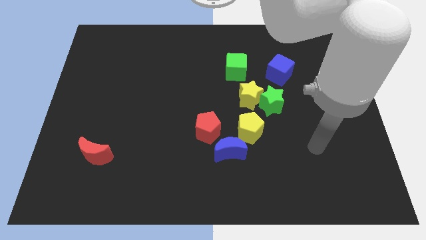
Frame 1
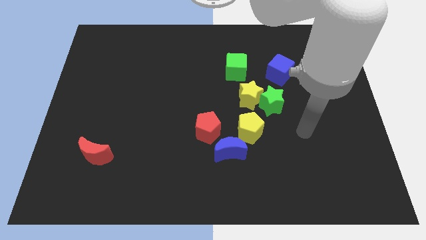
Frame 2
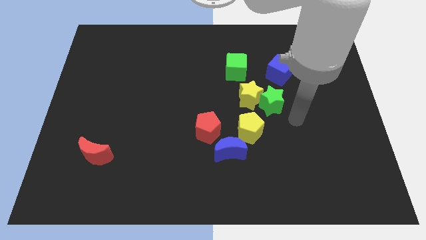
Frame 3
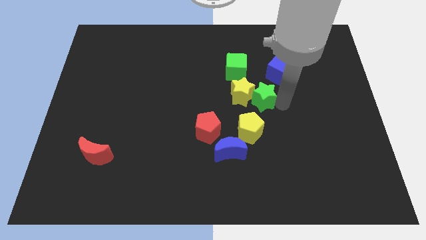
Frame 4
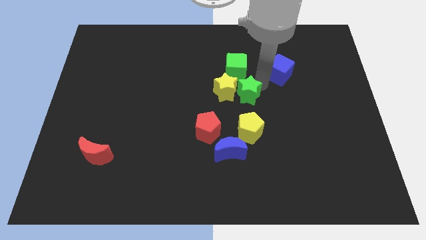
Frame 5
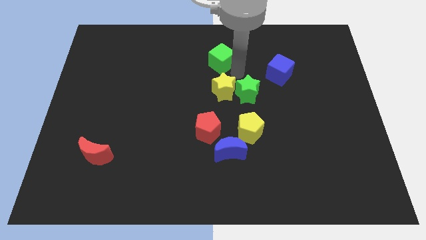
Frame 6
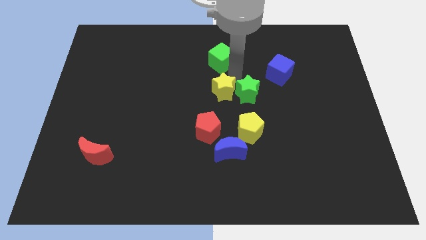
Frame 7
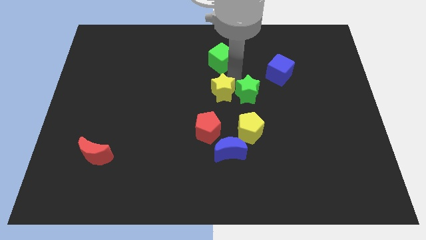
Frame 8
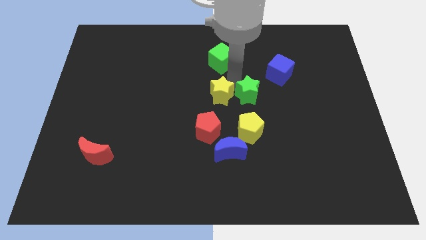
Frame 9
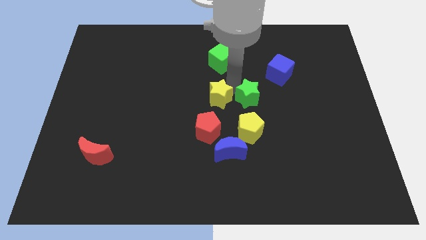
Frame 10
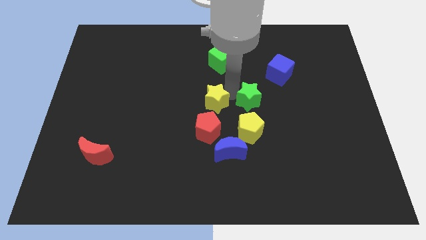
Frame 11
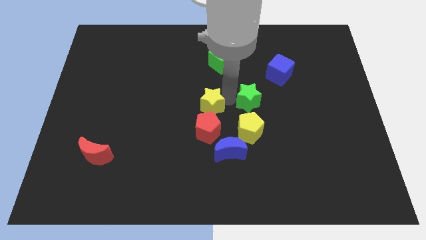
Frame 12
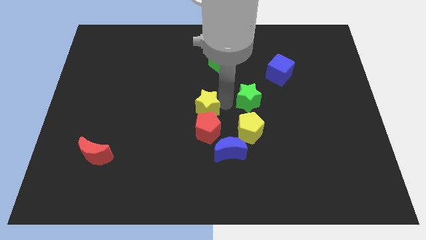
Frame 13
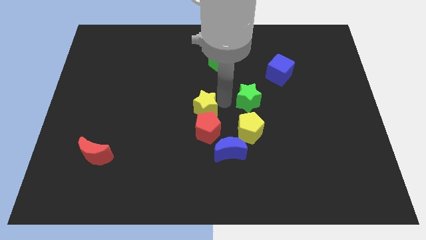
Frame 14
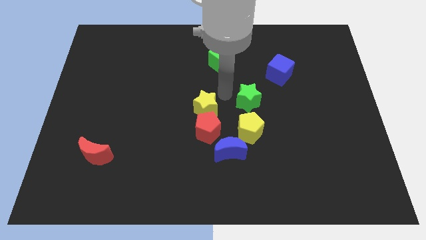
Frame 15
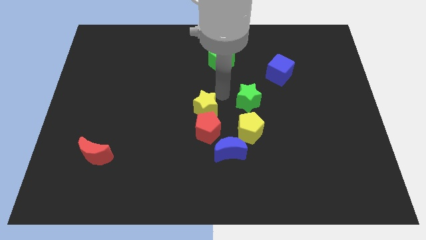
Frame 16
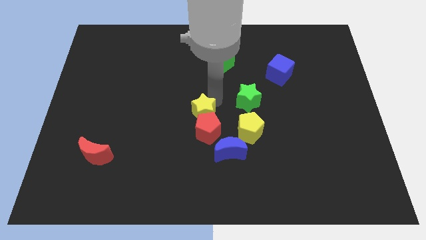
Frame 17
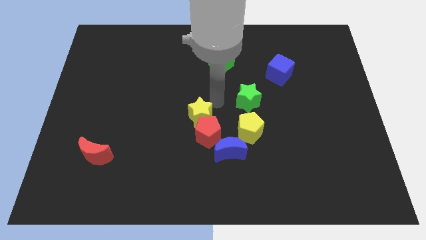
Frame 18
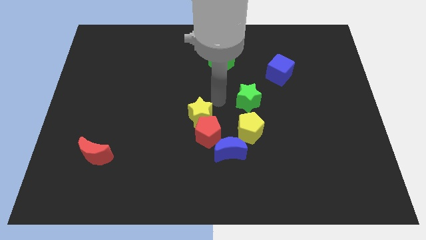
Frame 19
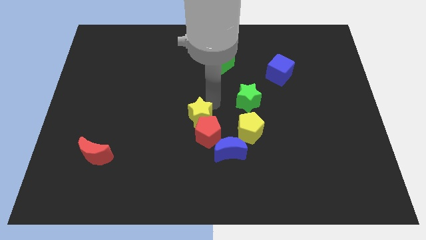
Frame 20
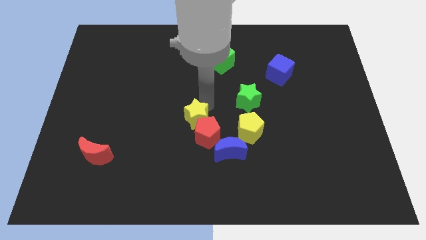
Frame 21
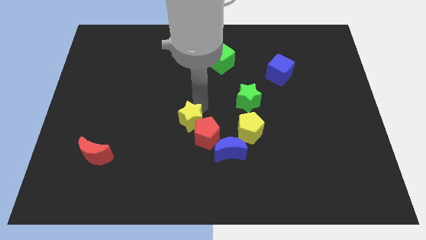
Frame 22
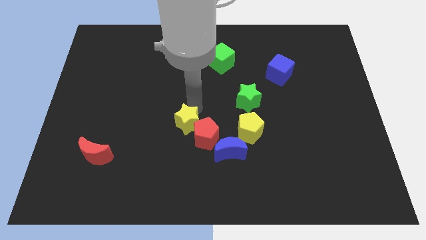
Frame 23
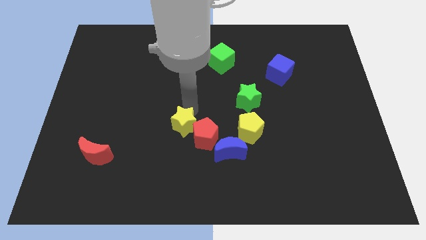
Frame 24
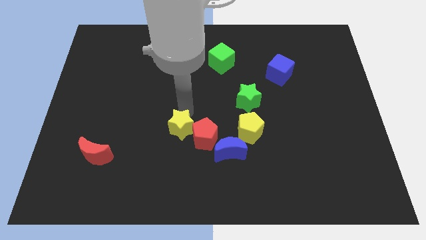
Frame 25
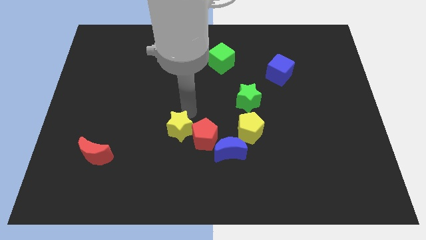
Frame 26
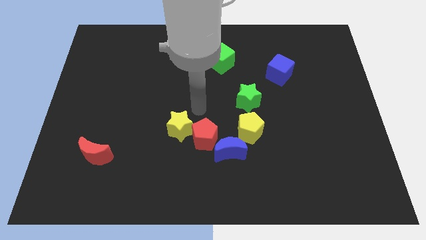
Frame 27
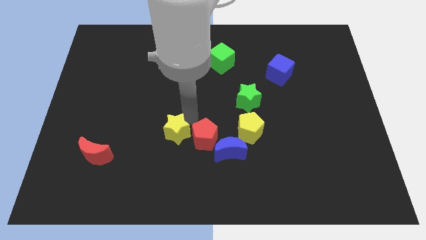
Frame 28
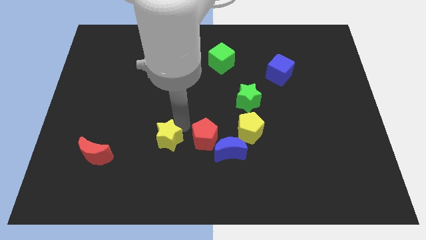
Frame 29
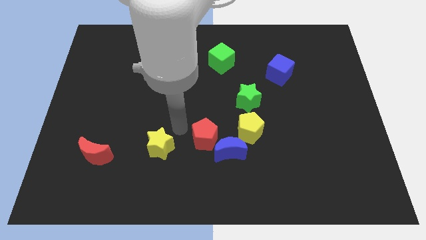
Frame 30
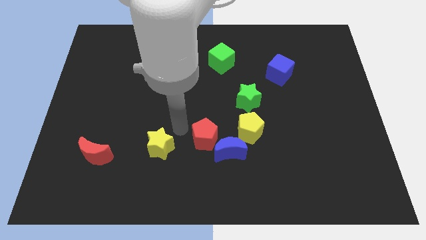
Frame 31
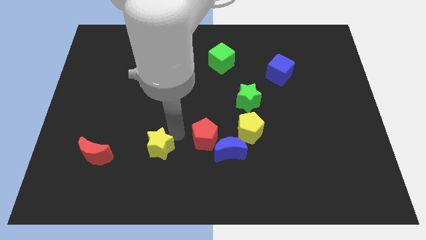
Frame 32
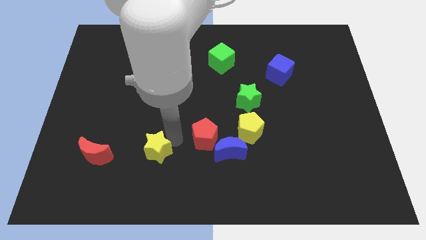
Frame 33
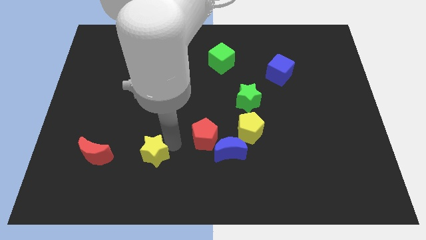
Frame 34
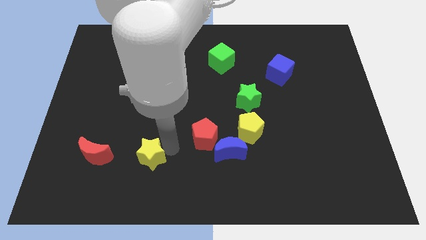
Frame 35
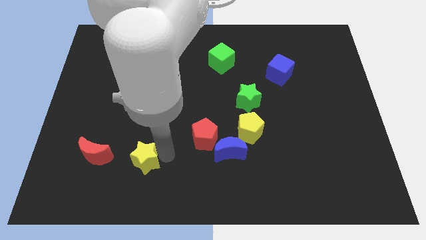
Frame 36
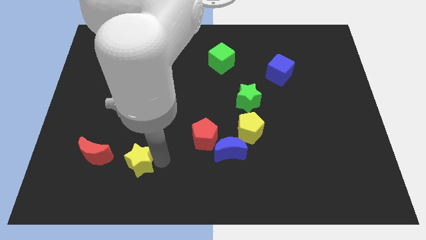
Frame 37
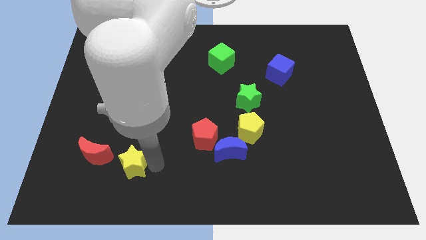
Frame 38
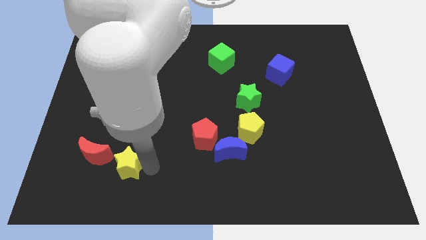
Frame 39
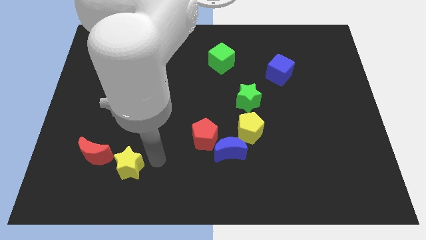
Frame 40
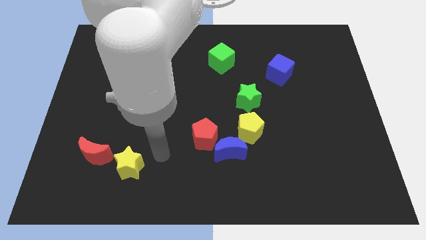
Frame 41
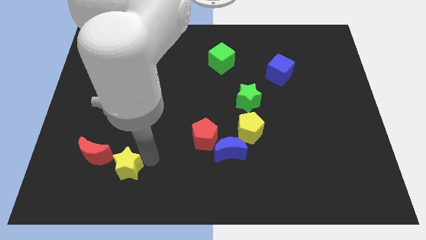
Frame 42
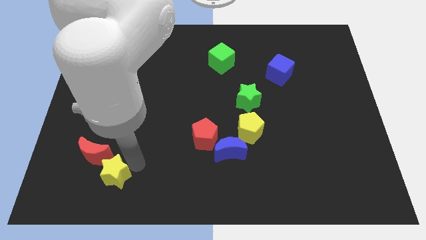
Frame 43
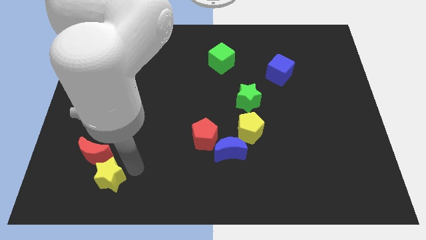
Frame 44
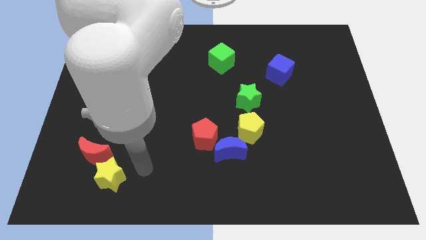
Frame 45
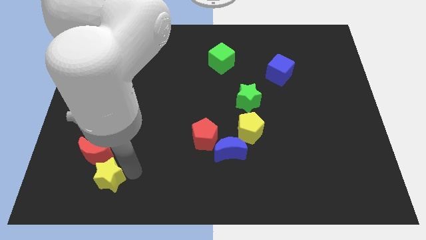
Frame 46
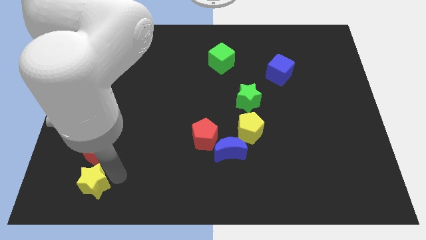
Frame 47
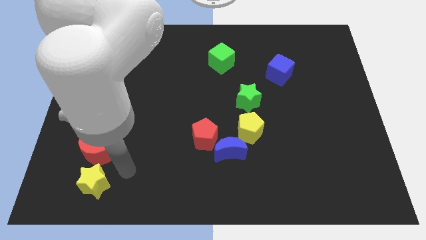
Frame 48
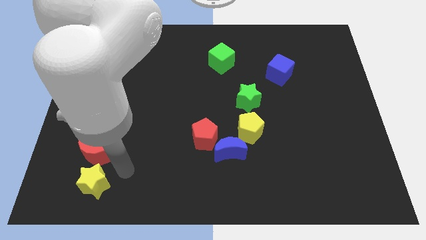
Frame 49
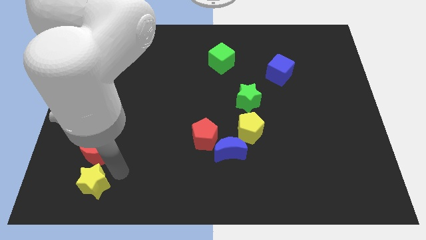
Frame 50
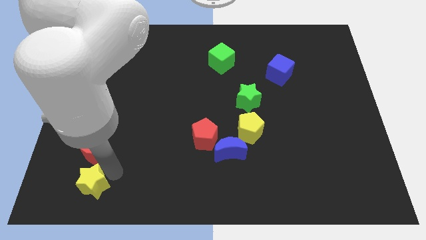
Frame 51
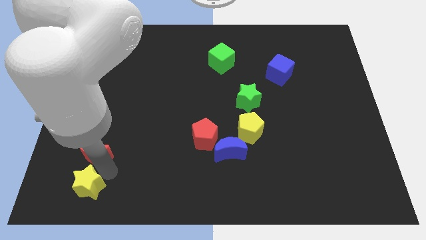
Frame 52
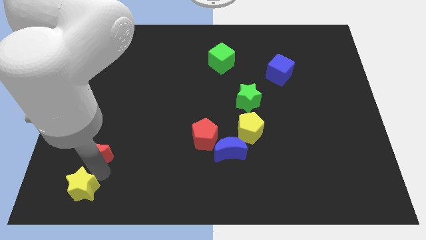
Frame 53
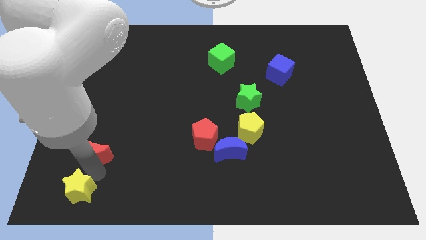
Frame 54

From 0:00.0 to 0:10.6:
put the yellow star to the bottom left

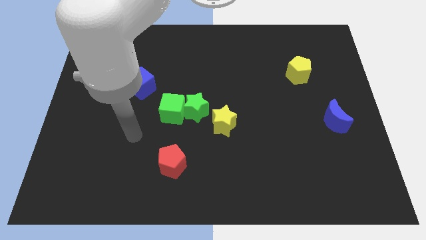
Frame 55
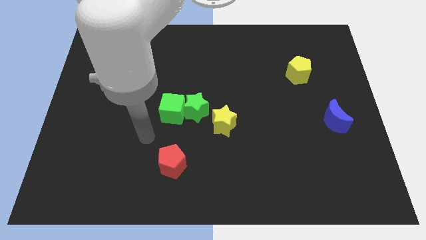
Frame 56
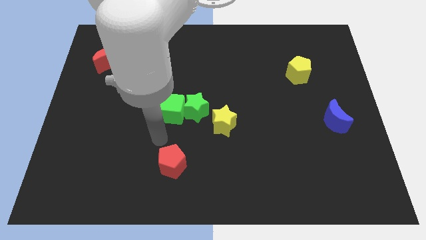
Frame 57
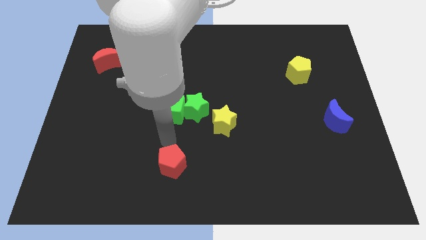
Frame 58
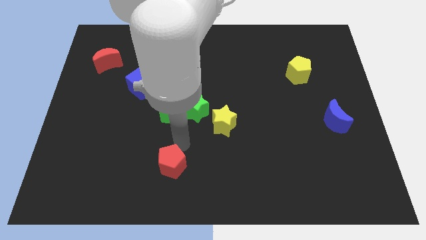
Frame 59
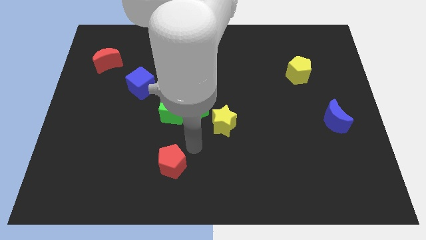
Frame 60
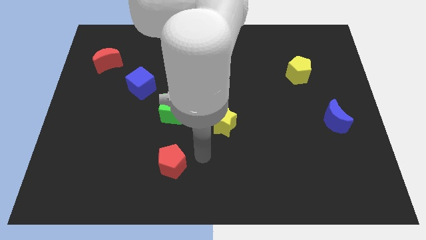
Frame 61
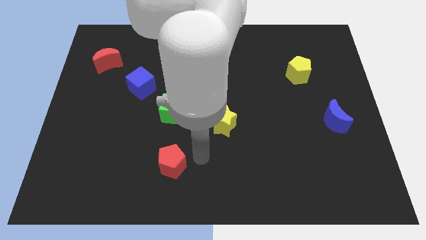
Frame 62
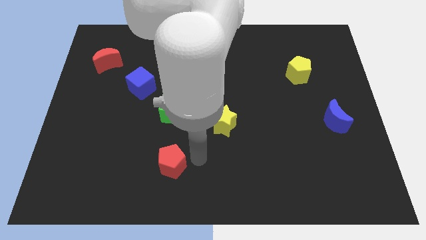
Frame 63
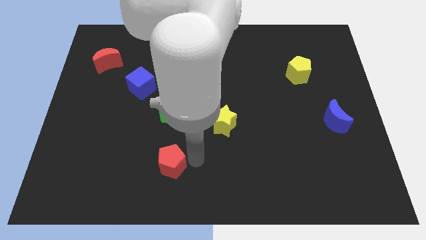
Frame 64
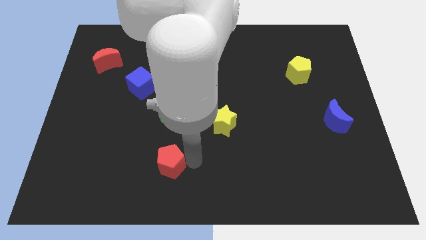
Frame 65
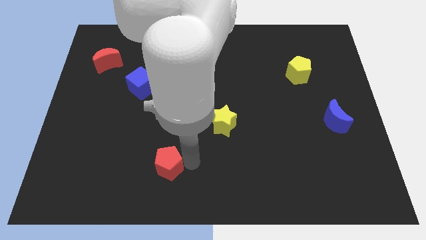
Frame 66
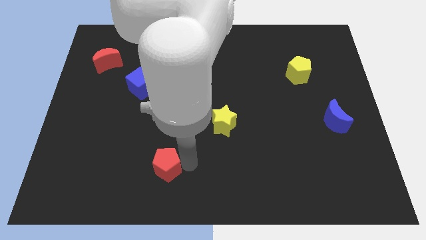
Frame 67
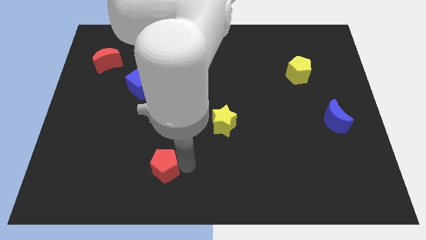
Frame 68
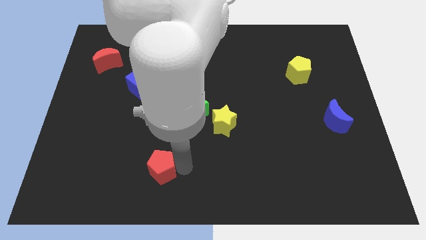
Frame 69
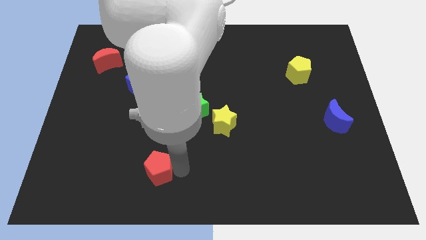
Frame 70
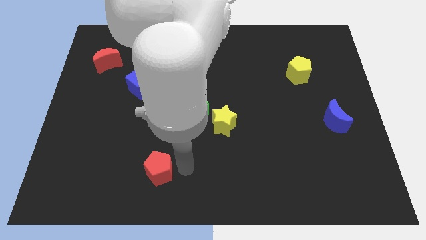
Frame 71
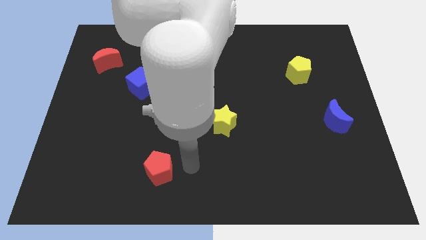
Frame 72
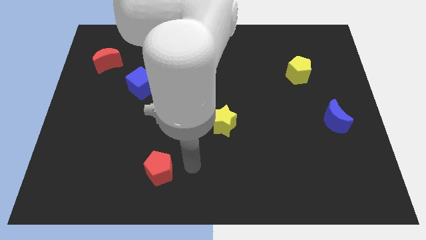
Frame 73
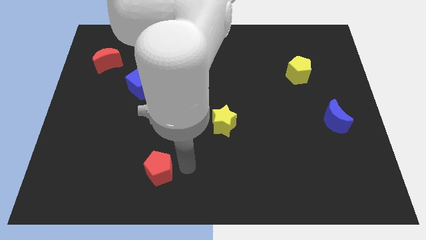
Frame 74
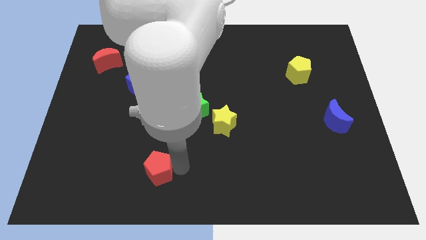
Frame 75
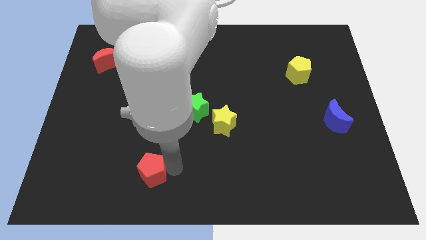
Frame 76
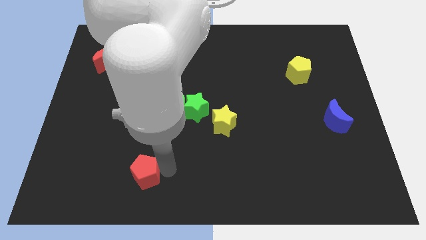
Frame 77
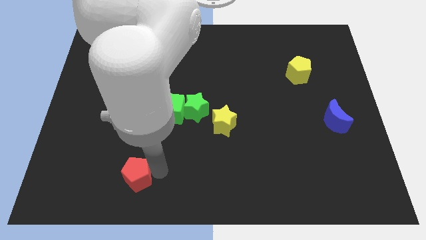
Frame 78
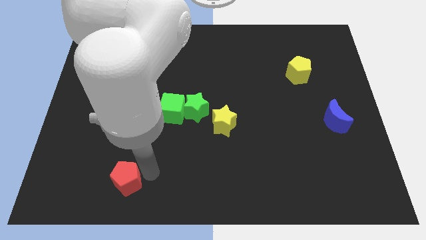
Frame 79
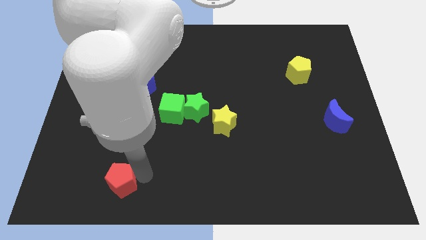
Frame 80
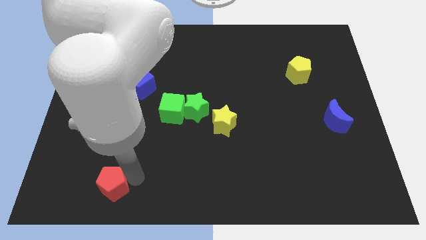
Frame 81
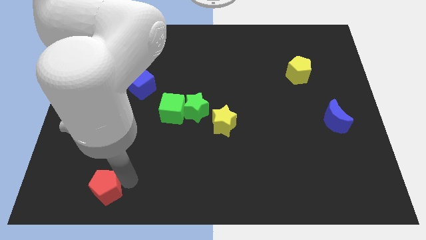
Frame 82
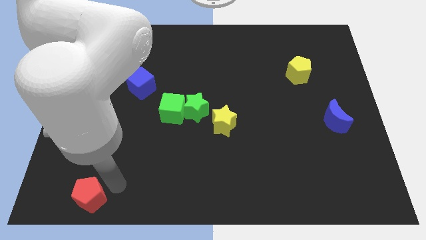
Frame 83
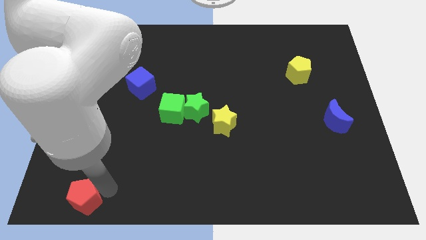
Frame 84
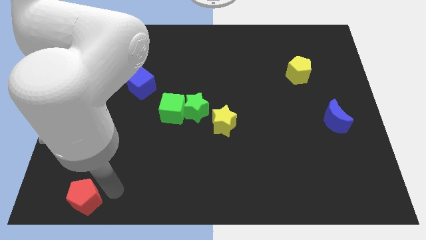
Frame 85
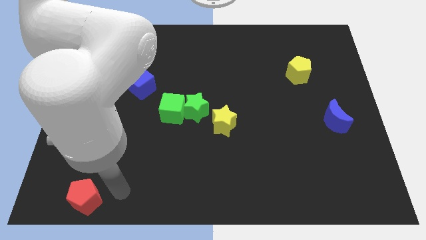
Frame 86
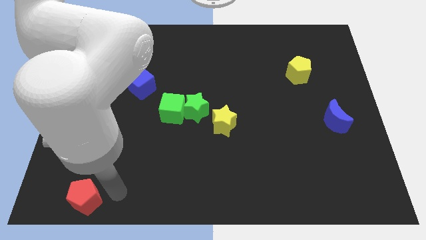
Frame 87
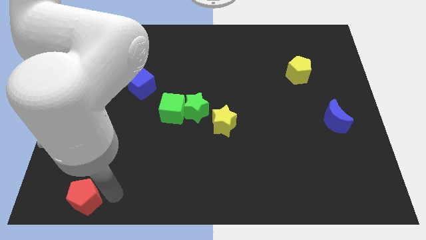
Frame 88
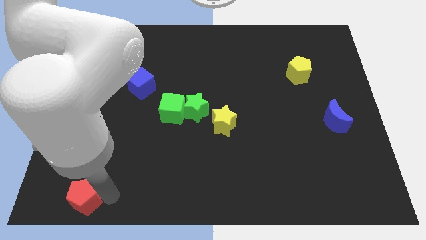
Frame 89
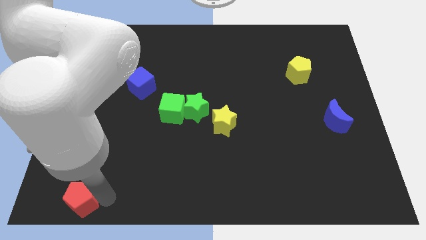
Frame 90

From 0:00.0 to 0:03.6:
move the red pentagon to the bottom left corner
